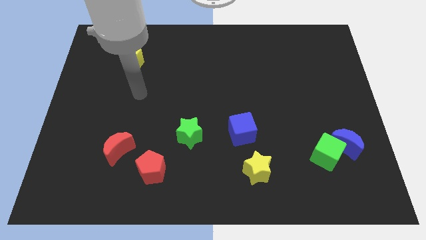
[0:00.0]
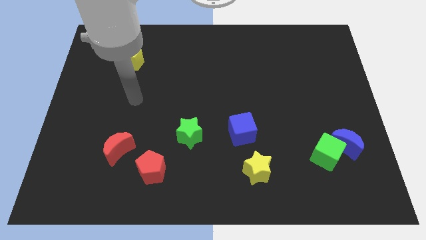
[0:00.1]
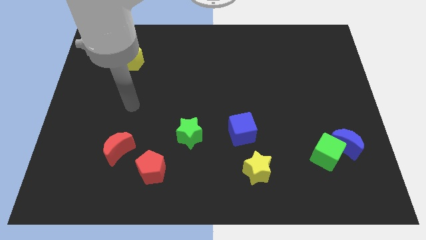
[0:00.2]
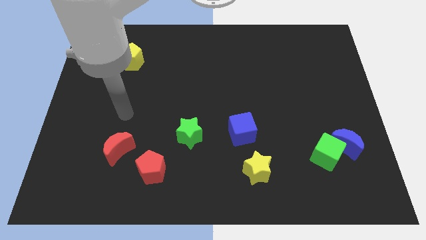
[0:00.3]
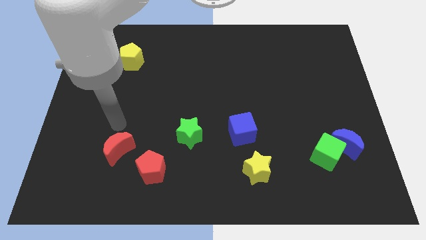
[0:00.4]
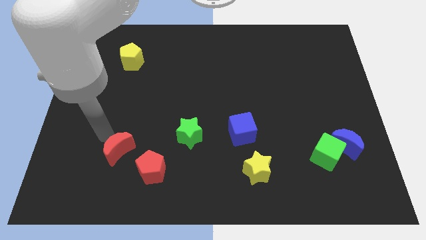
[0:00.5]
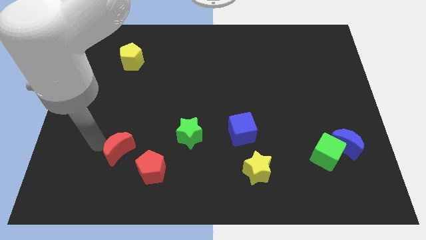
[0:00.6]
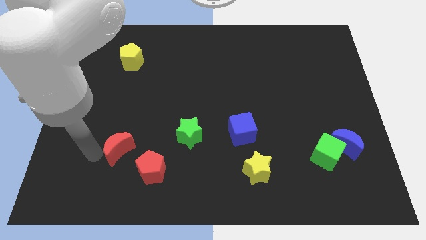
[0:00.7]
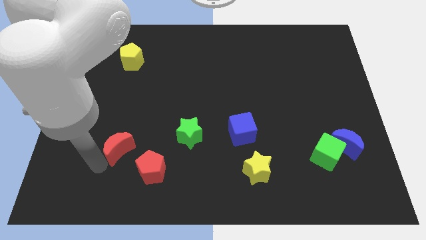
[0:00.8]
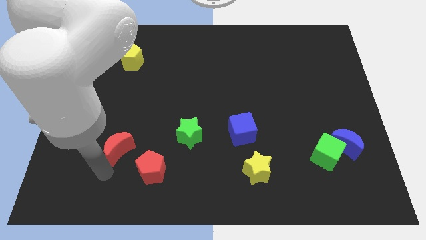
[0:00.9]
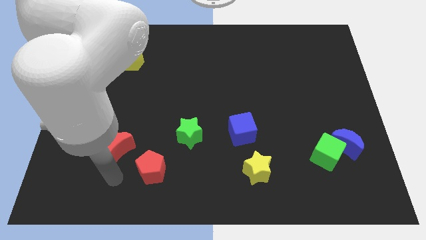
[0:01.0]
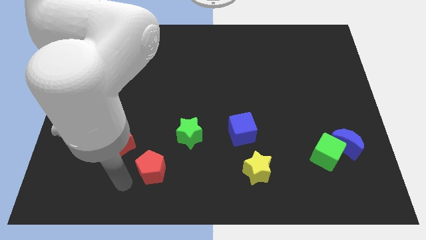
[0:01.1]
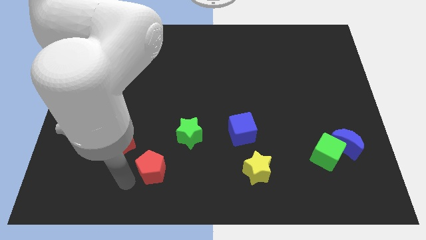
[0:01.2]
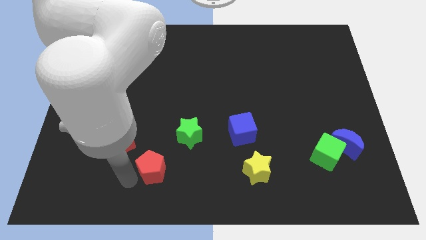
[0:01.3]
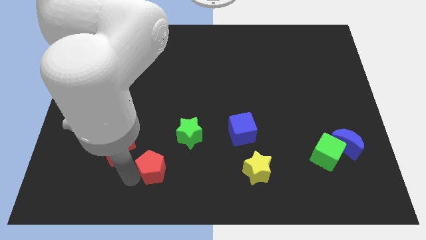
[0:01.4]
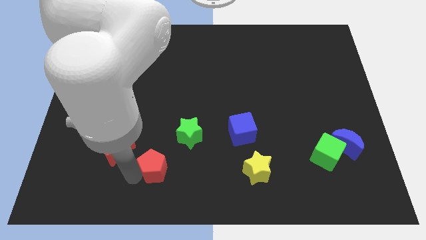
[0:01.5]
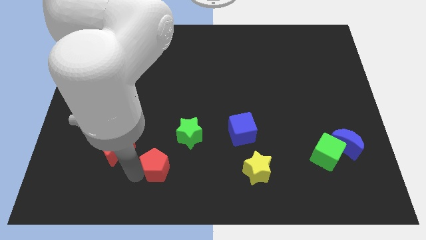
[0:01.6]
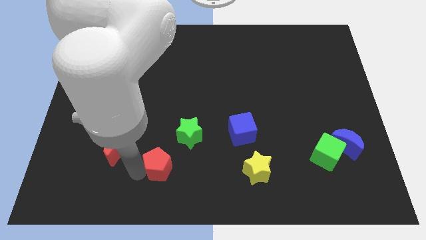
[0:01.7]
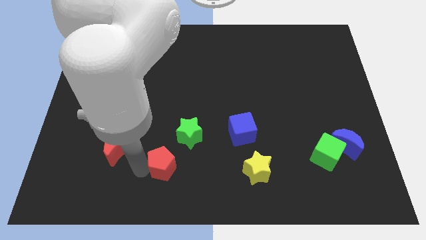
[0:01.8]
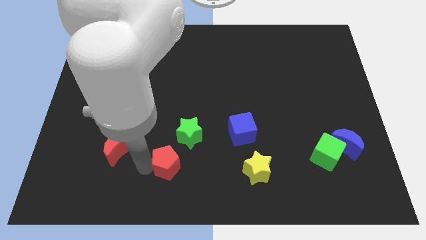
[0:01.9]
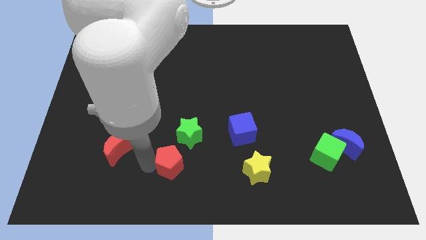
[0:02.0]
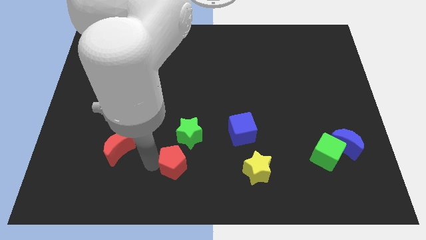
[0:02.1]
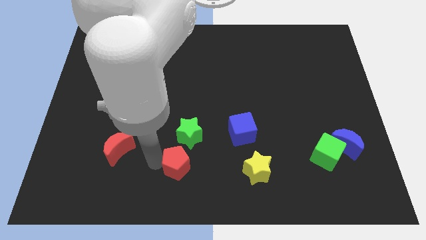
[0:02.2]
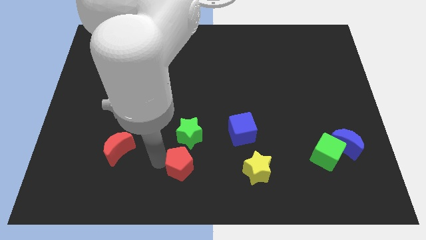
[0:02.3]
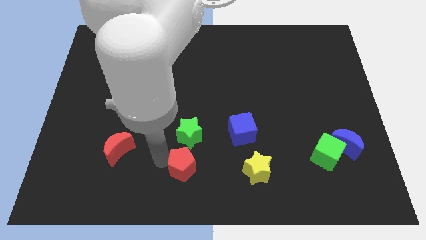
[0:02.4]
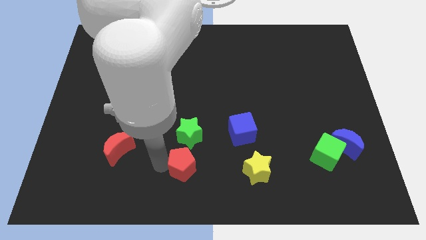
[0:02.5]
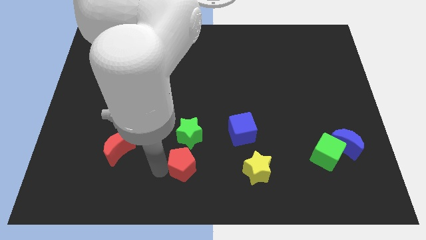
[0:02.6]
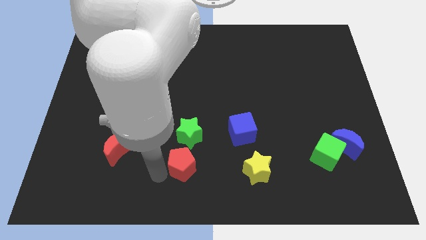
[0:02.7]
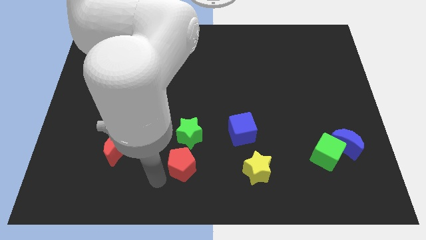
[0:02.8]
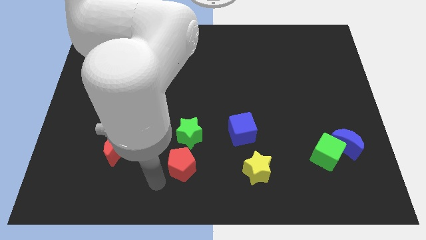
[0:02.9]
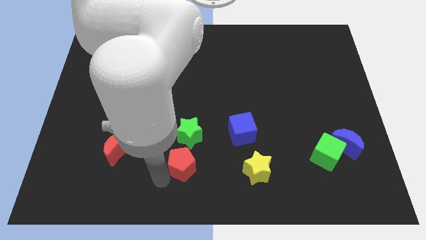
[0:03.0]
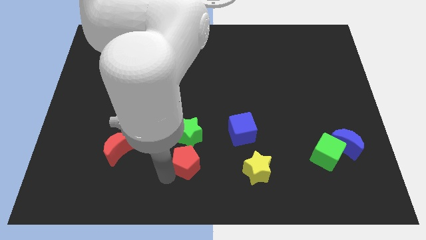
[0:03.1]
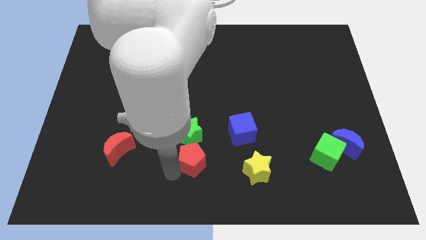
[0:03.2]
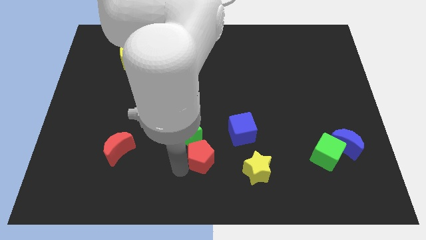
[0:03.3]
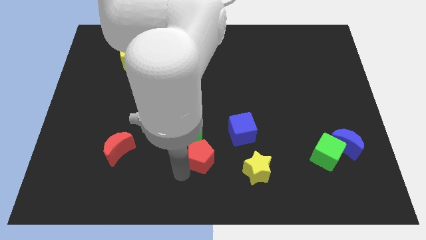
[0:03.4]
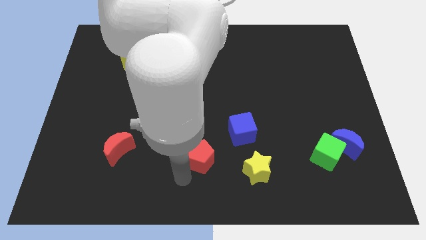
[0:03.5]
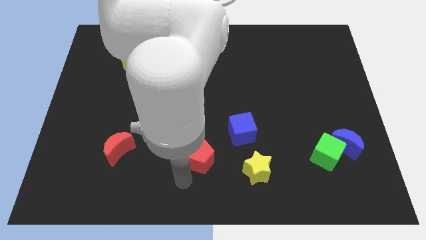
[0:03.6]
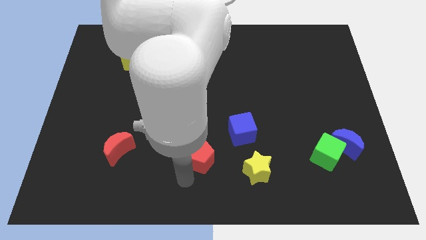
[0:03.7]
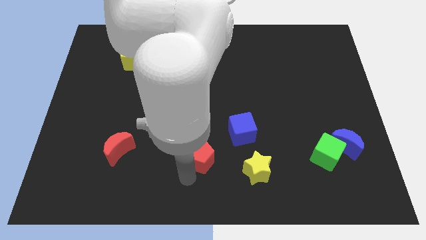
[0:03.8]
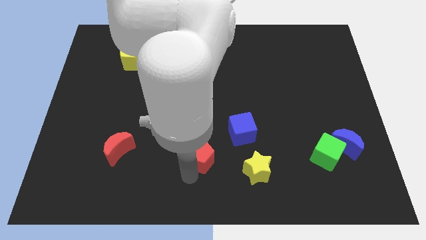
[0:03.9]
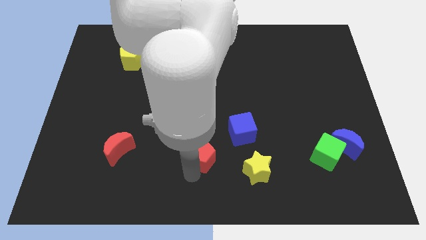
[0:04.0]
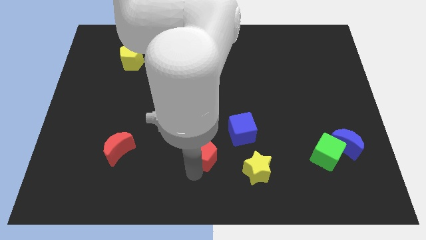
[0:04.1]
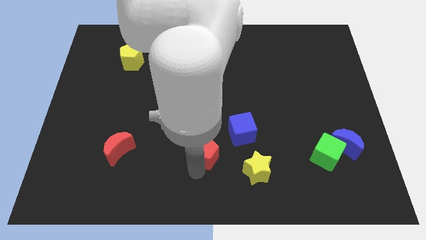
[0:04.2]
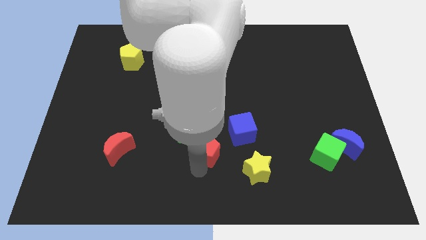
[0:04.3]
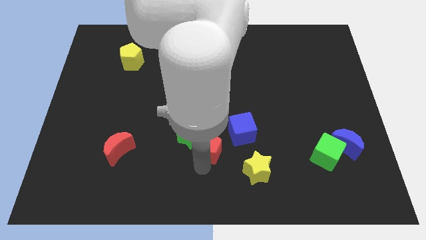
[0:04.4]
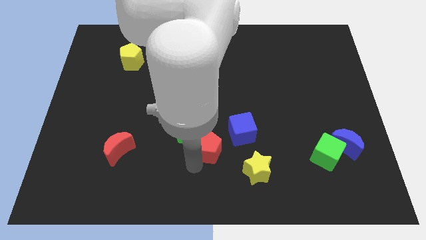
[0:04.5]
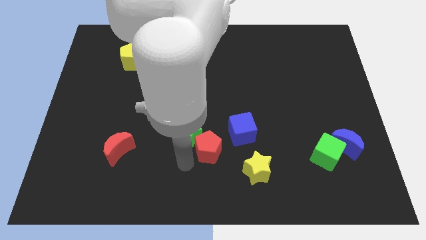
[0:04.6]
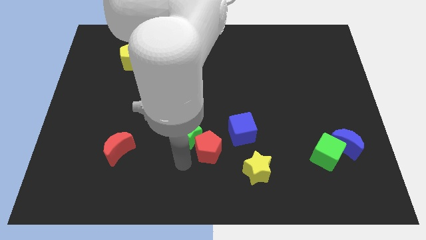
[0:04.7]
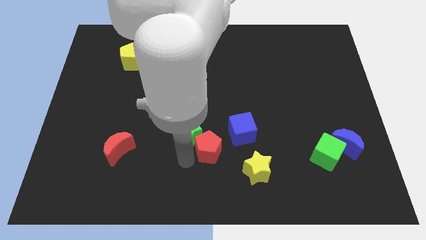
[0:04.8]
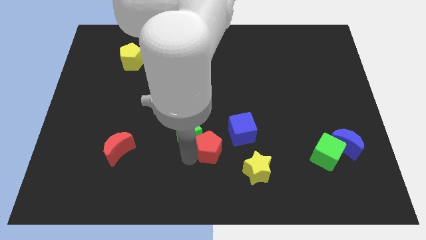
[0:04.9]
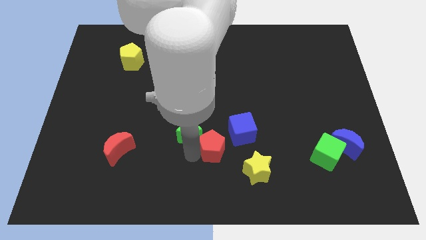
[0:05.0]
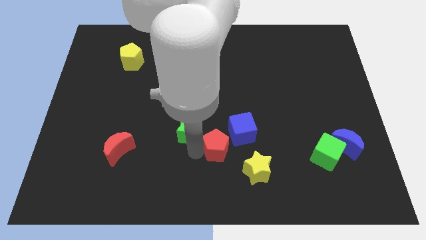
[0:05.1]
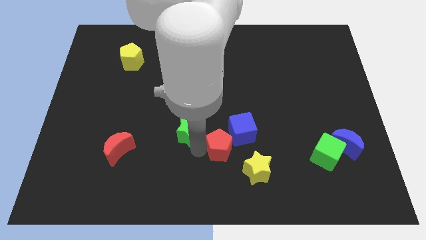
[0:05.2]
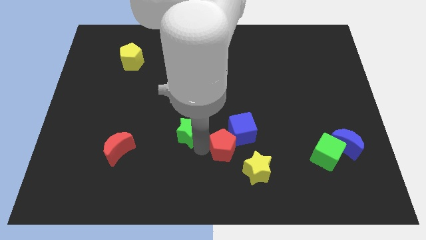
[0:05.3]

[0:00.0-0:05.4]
put the red pentagon to the blue cube

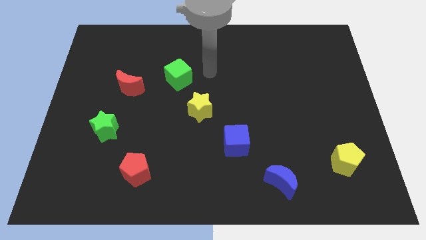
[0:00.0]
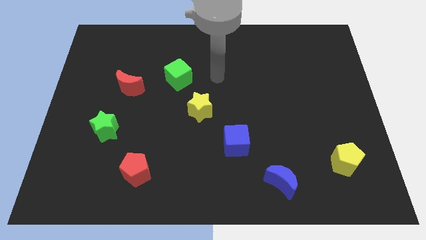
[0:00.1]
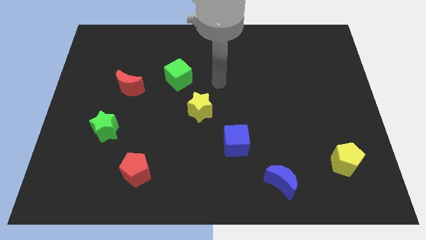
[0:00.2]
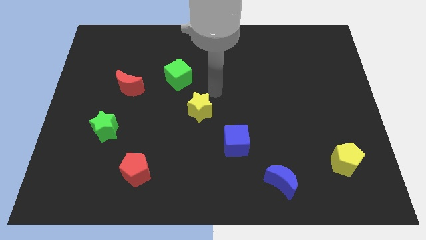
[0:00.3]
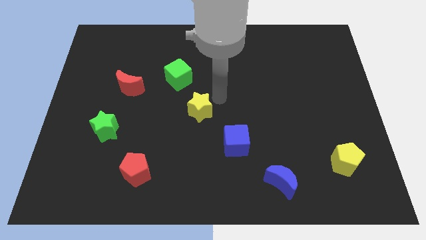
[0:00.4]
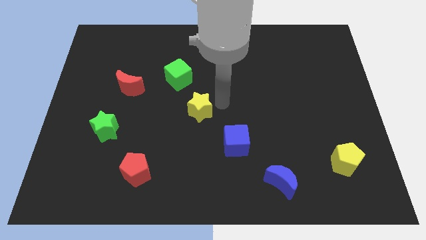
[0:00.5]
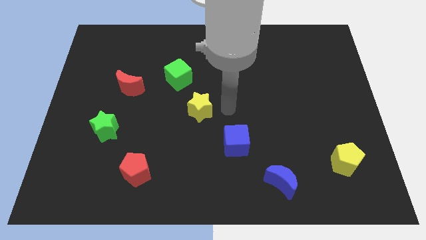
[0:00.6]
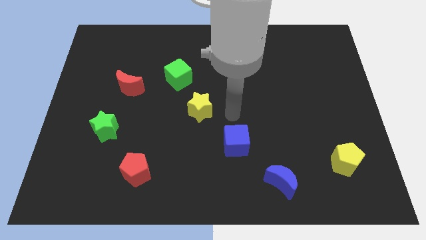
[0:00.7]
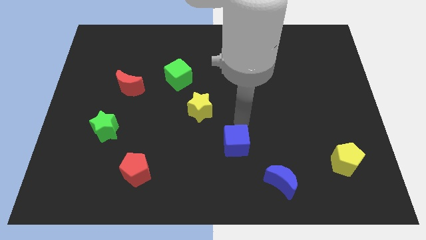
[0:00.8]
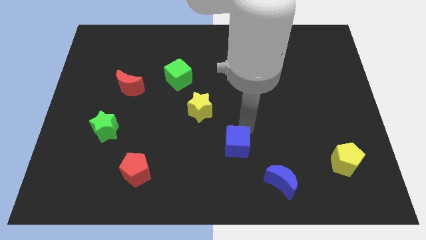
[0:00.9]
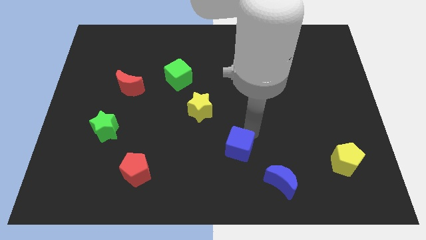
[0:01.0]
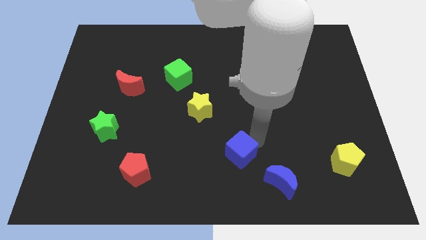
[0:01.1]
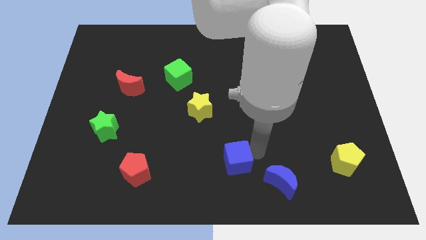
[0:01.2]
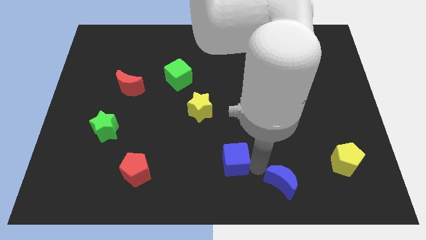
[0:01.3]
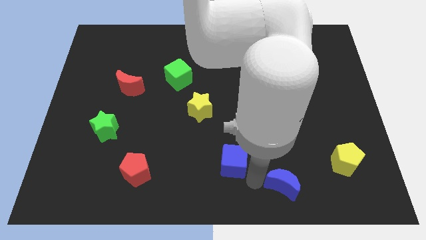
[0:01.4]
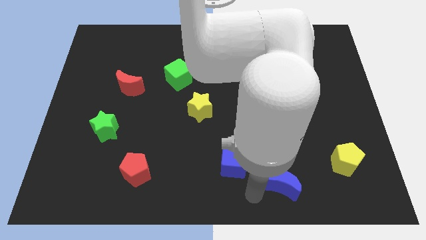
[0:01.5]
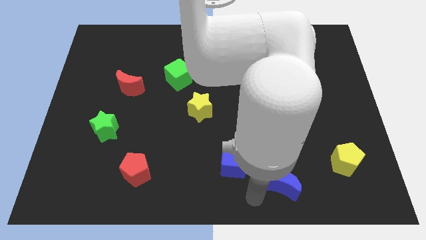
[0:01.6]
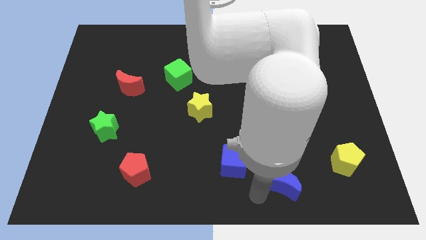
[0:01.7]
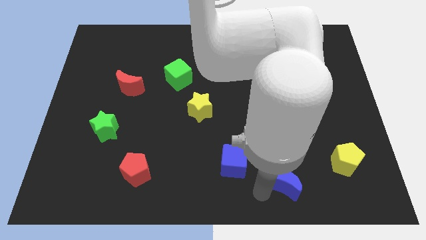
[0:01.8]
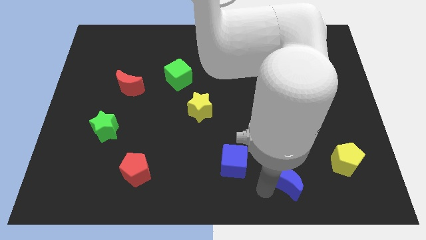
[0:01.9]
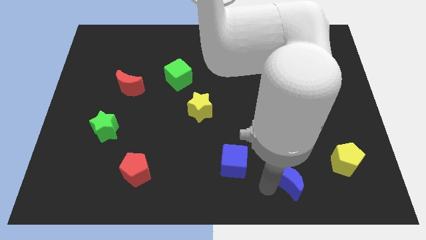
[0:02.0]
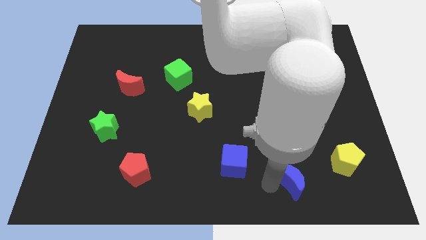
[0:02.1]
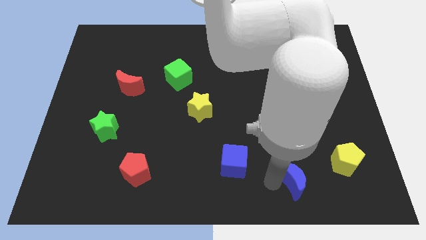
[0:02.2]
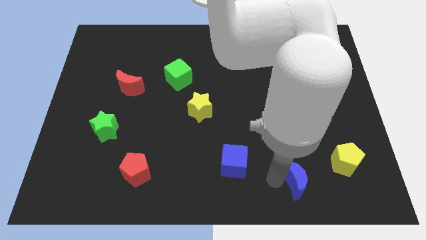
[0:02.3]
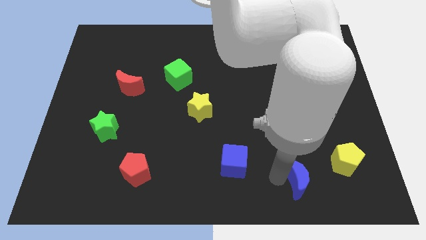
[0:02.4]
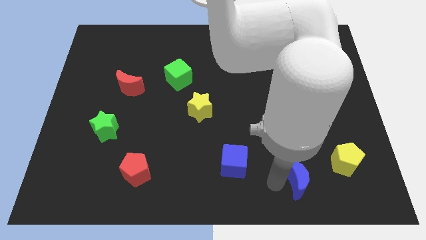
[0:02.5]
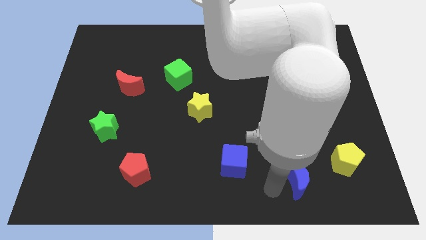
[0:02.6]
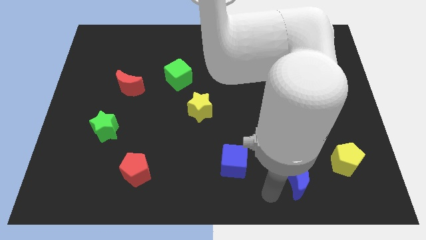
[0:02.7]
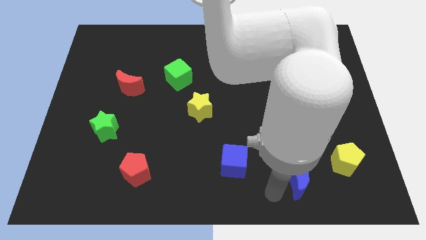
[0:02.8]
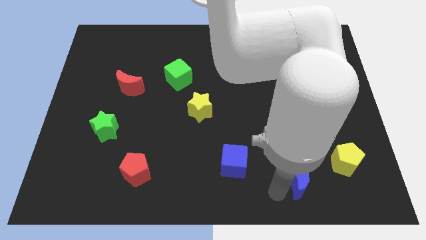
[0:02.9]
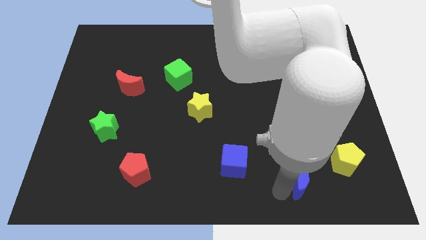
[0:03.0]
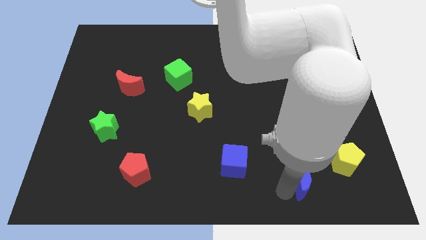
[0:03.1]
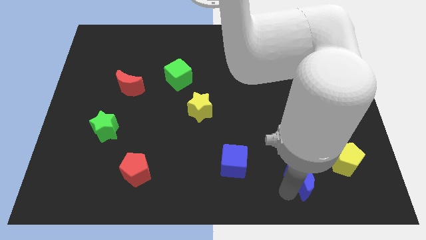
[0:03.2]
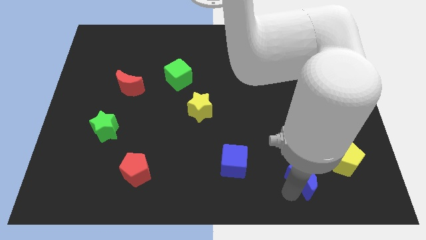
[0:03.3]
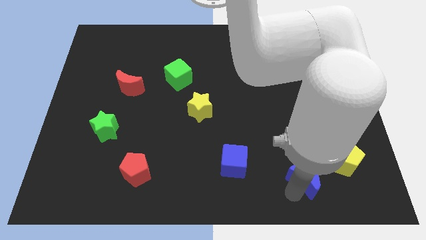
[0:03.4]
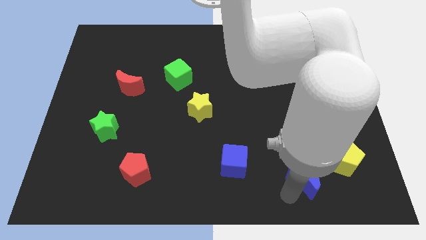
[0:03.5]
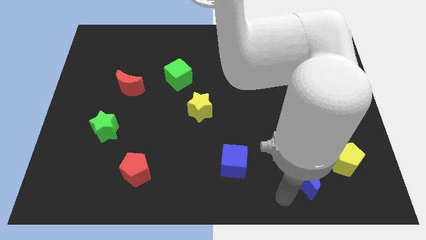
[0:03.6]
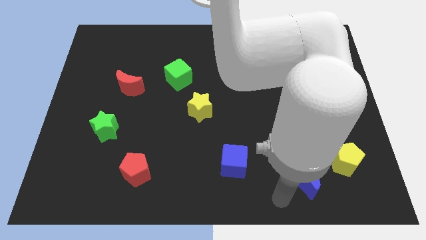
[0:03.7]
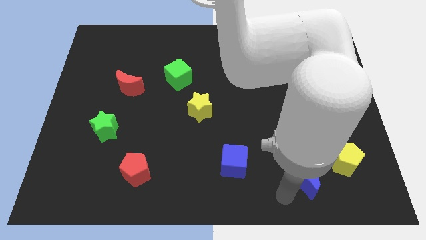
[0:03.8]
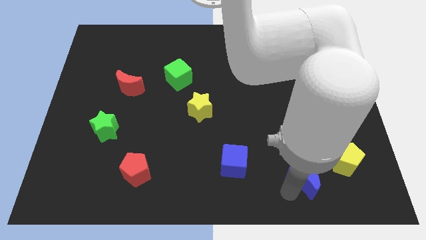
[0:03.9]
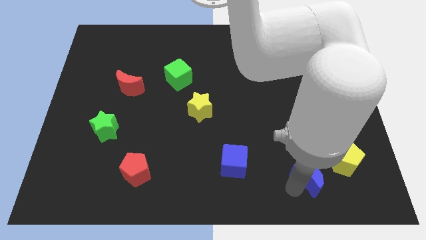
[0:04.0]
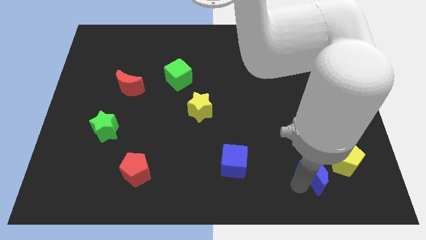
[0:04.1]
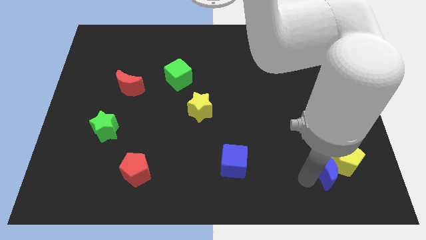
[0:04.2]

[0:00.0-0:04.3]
put the blue moon towards the yellow pentagon
